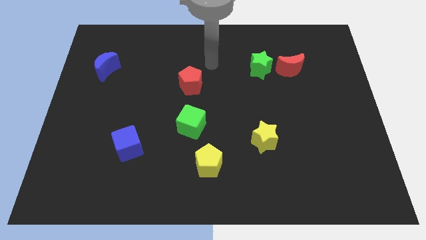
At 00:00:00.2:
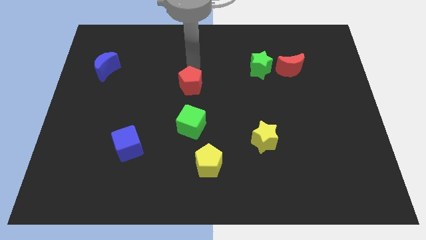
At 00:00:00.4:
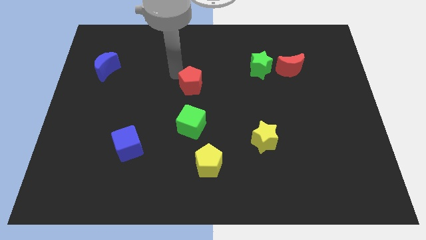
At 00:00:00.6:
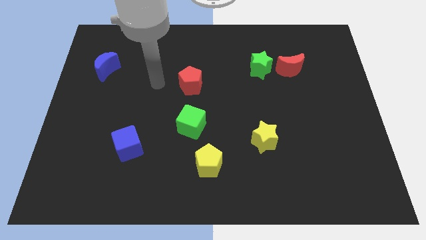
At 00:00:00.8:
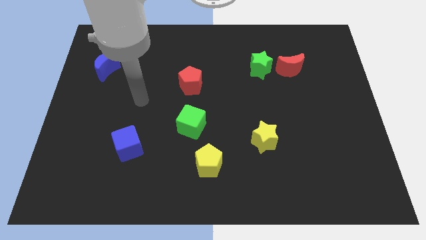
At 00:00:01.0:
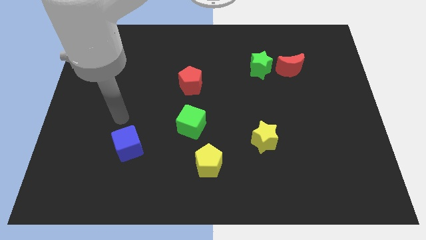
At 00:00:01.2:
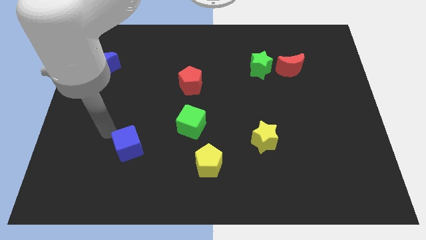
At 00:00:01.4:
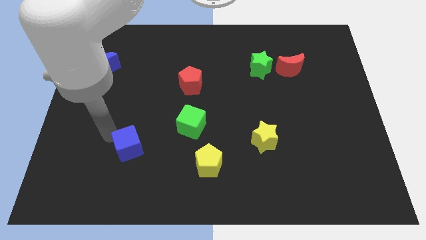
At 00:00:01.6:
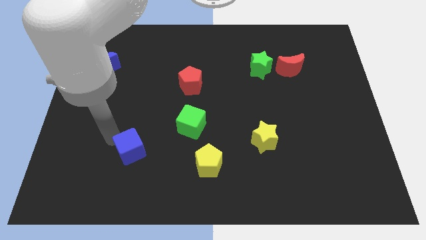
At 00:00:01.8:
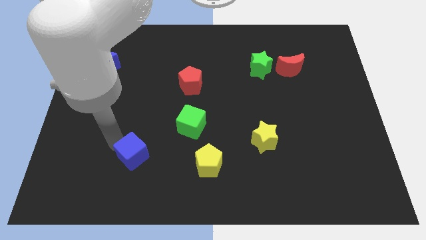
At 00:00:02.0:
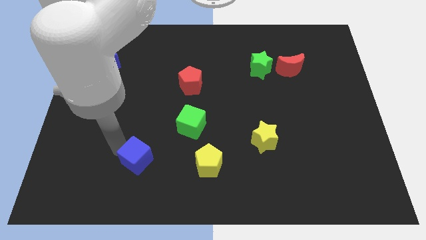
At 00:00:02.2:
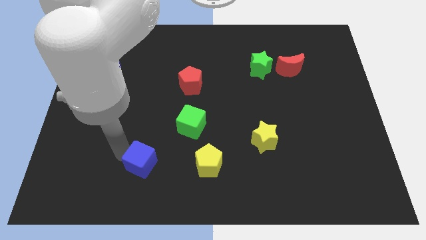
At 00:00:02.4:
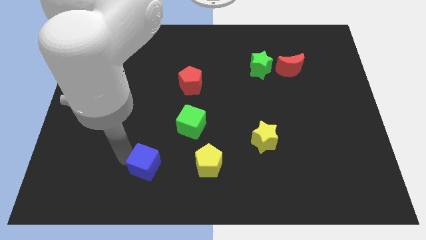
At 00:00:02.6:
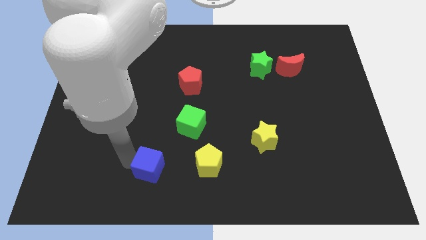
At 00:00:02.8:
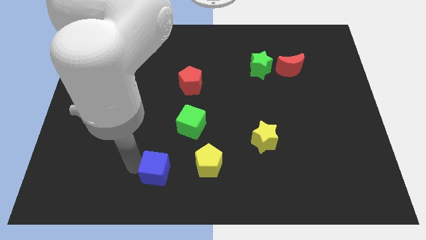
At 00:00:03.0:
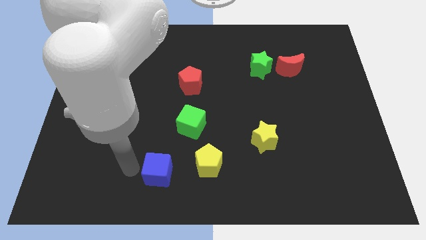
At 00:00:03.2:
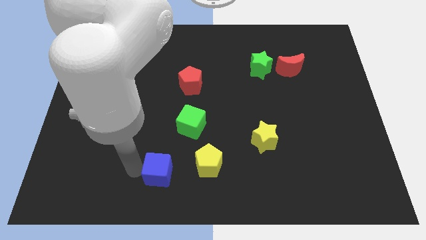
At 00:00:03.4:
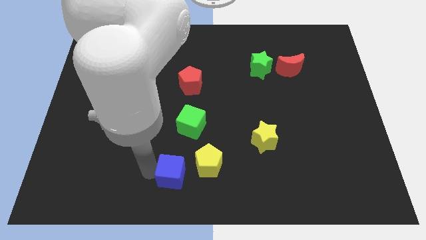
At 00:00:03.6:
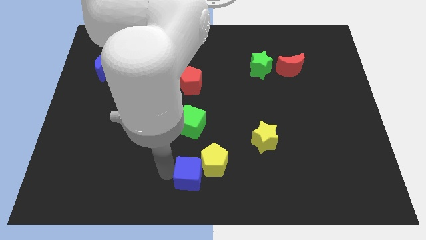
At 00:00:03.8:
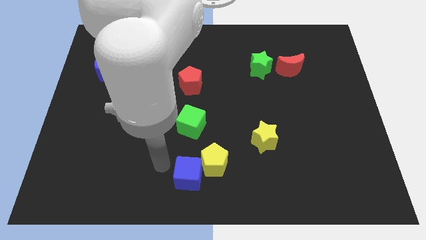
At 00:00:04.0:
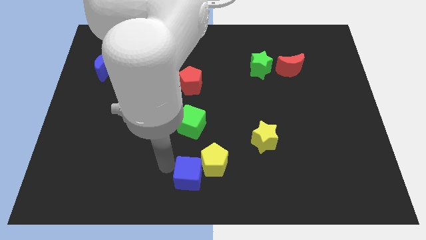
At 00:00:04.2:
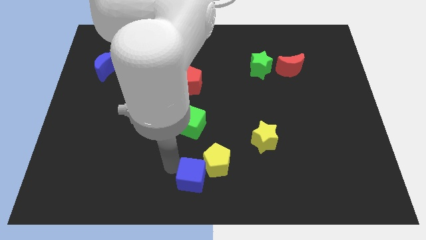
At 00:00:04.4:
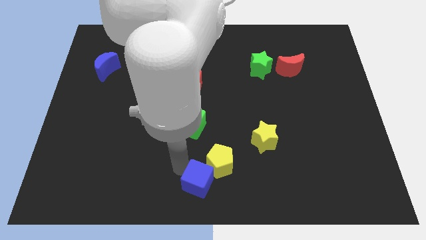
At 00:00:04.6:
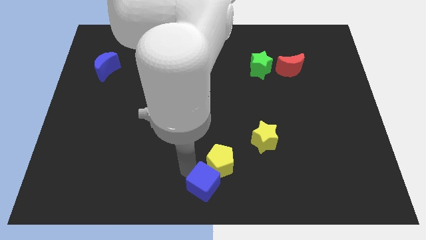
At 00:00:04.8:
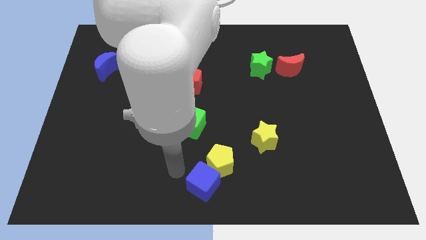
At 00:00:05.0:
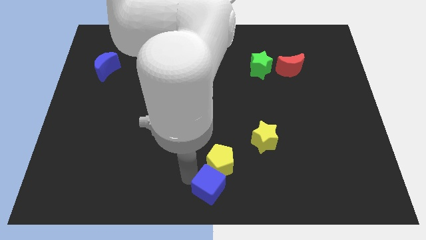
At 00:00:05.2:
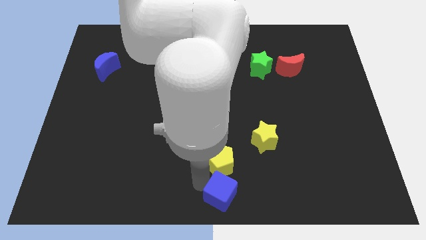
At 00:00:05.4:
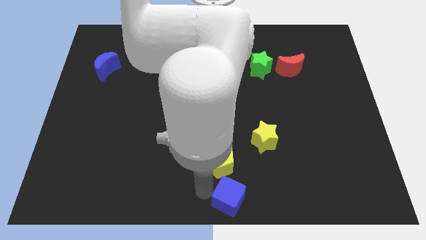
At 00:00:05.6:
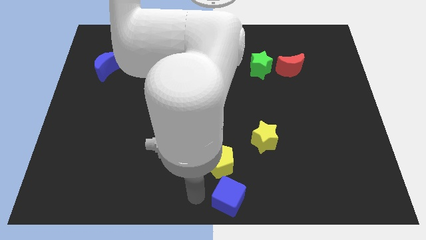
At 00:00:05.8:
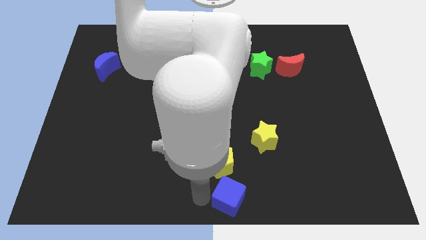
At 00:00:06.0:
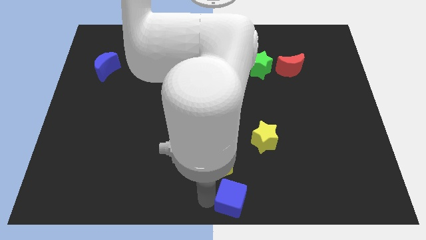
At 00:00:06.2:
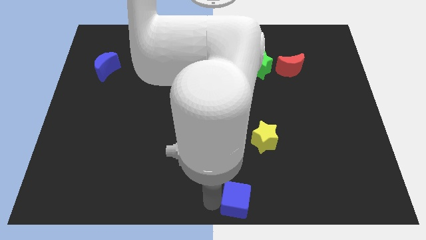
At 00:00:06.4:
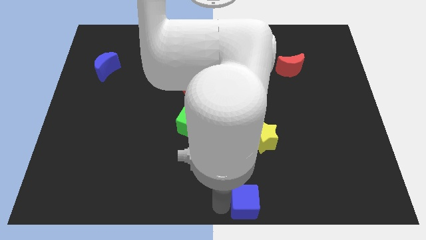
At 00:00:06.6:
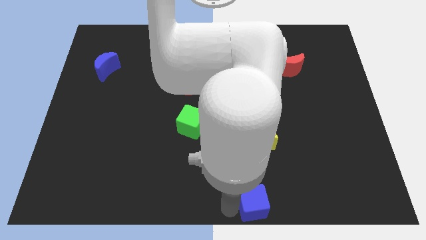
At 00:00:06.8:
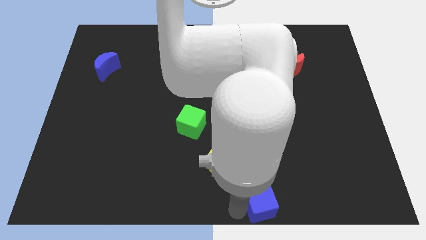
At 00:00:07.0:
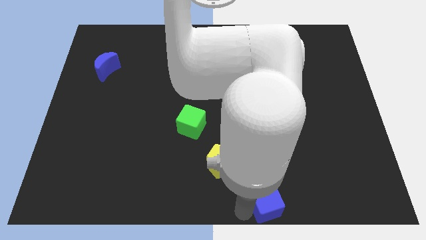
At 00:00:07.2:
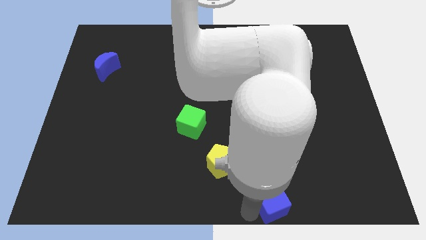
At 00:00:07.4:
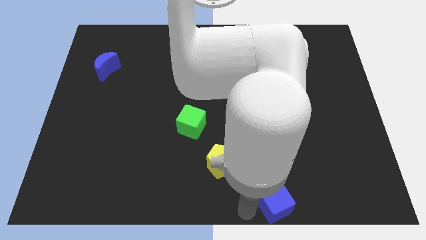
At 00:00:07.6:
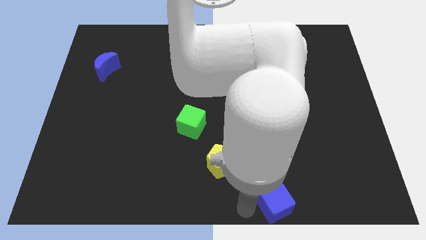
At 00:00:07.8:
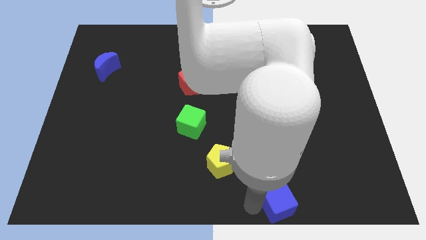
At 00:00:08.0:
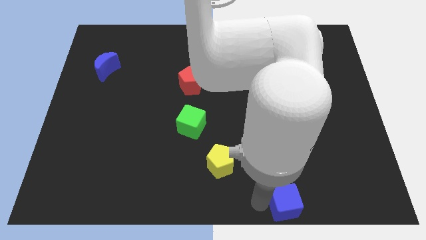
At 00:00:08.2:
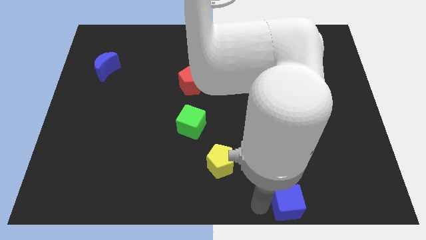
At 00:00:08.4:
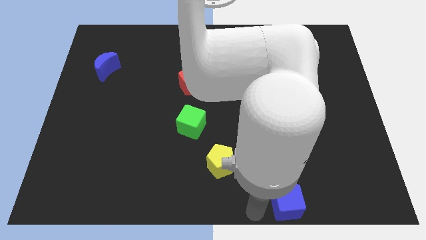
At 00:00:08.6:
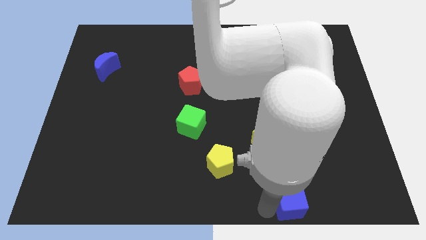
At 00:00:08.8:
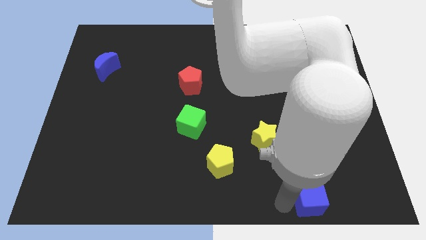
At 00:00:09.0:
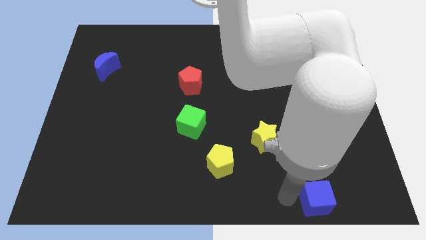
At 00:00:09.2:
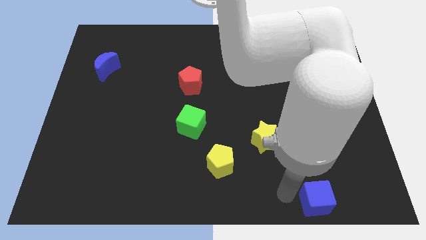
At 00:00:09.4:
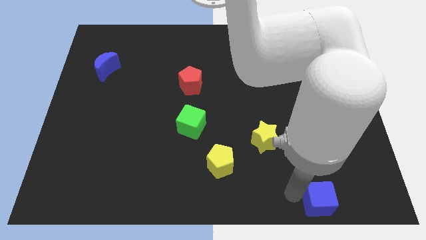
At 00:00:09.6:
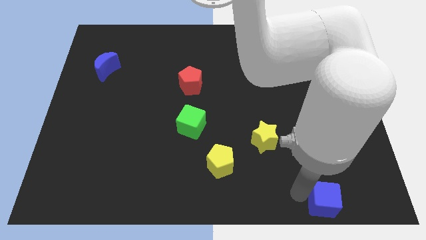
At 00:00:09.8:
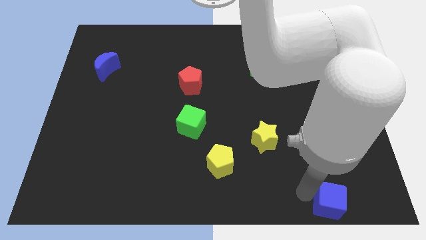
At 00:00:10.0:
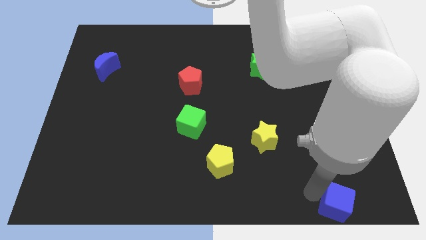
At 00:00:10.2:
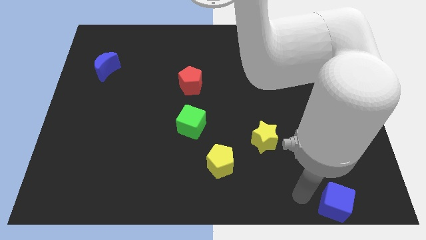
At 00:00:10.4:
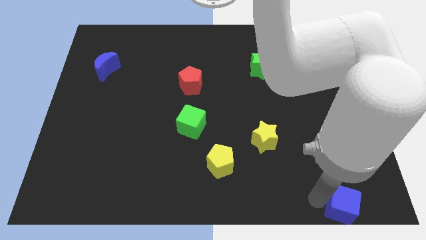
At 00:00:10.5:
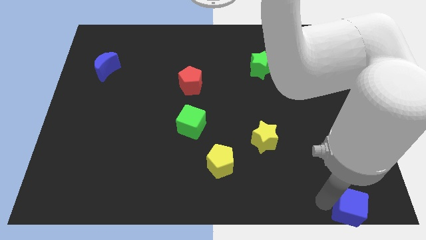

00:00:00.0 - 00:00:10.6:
slide the blue cube to the bottom right corner

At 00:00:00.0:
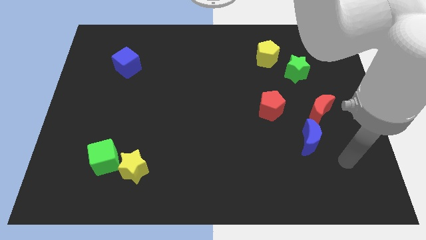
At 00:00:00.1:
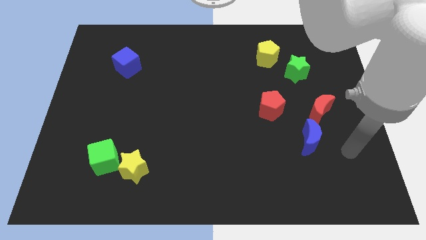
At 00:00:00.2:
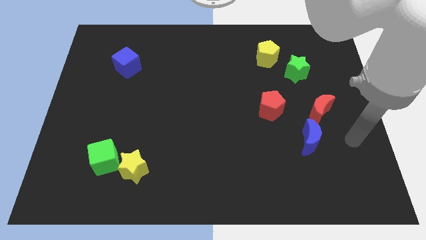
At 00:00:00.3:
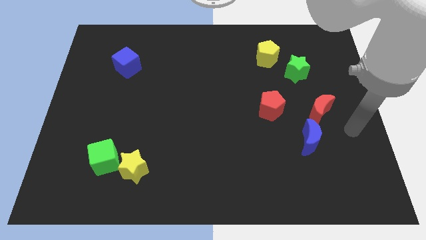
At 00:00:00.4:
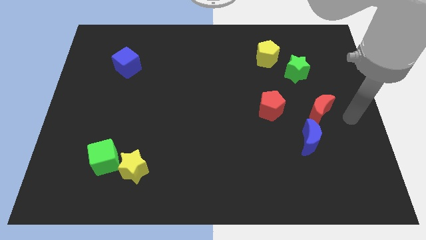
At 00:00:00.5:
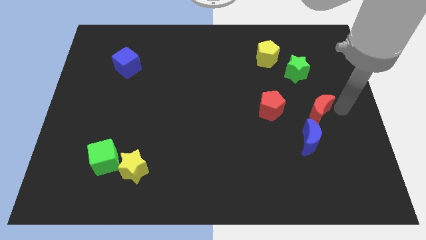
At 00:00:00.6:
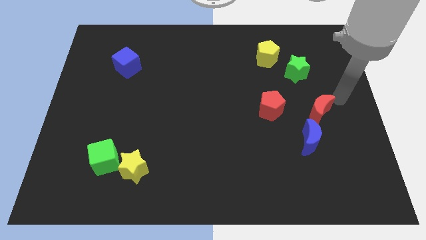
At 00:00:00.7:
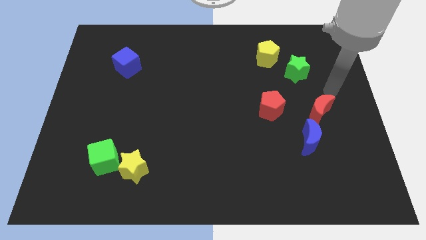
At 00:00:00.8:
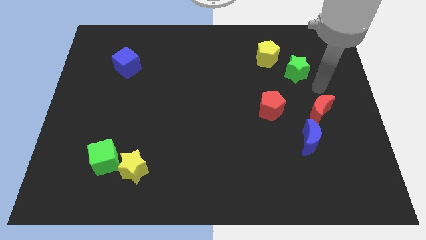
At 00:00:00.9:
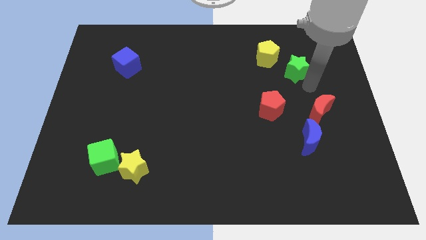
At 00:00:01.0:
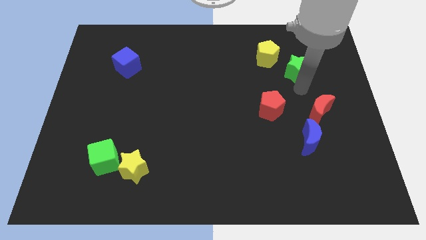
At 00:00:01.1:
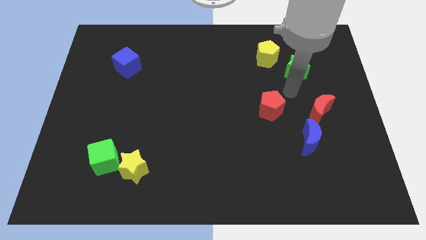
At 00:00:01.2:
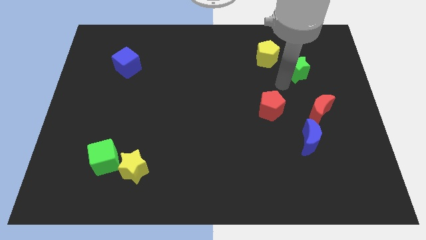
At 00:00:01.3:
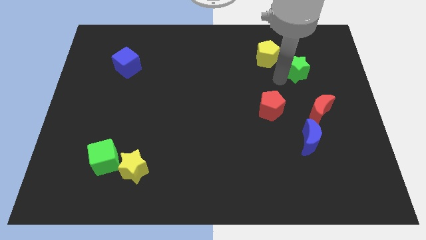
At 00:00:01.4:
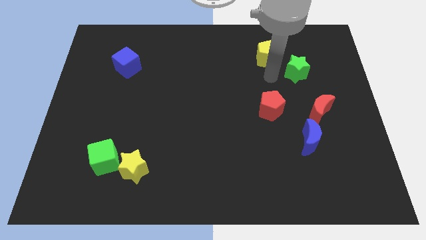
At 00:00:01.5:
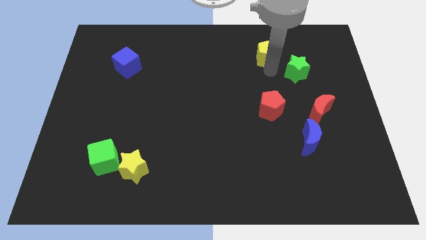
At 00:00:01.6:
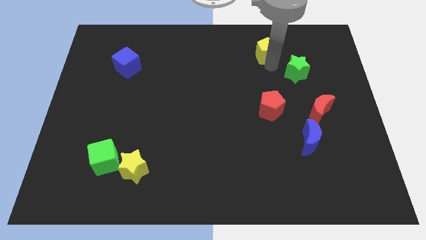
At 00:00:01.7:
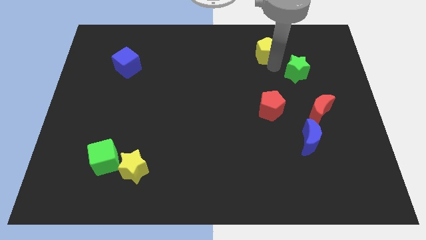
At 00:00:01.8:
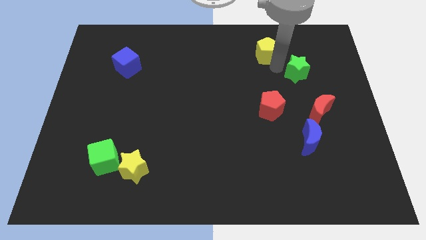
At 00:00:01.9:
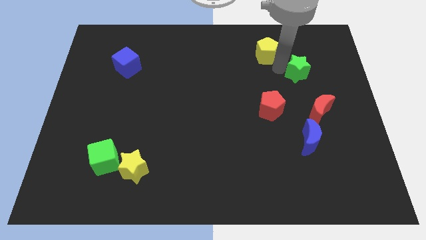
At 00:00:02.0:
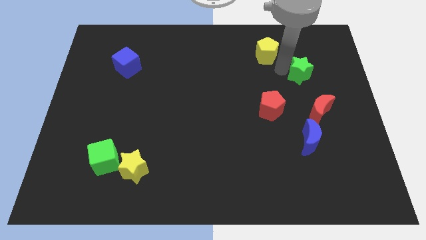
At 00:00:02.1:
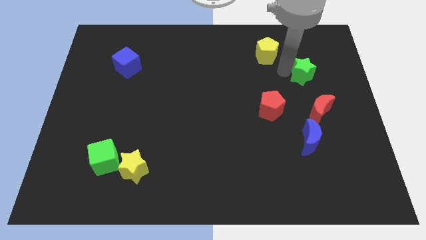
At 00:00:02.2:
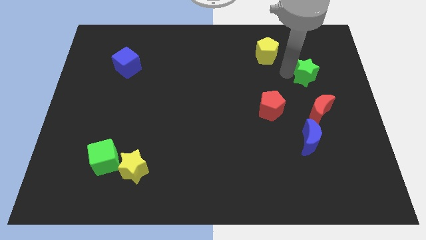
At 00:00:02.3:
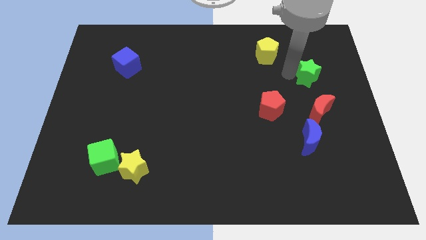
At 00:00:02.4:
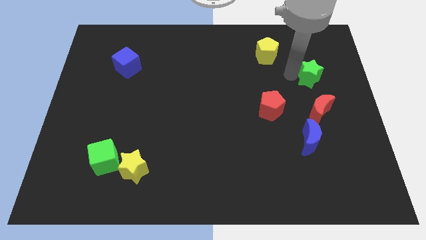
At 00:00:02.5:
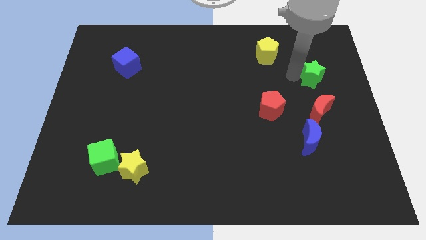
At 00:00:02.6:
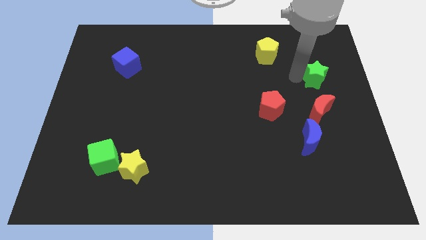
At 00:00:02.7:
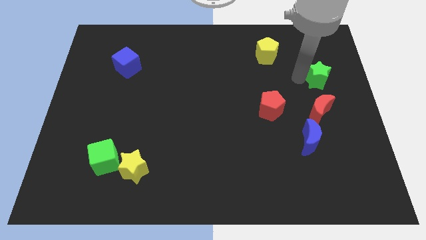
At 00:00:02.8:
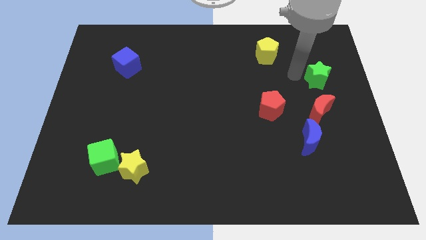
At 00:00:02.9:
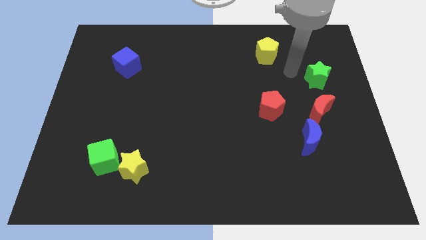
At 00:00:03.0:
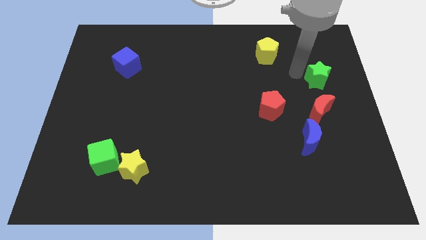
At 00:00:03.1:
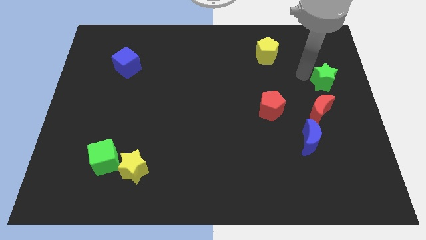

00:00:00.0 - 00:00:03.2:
slide the green star to the center right
